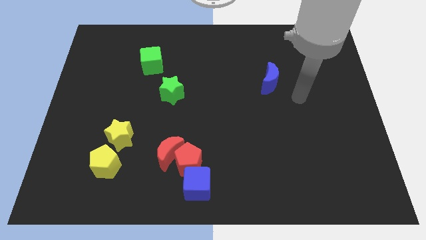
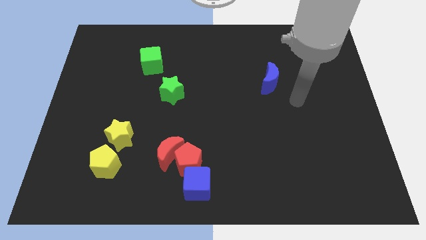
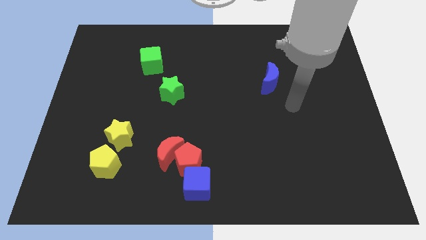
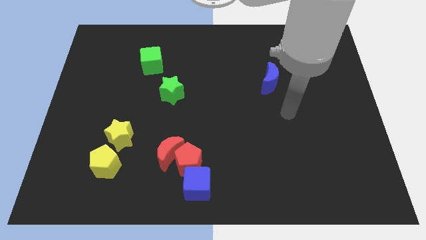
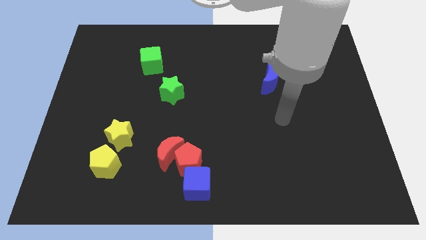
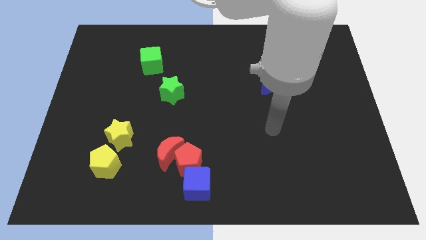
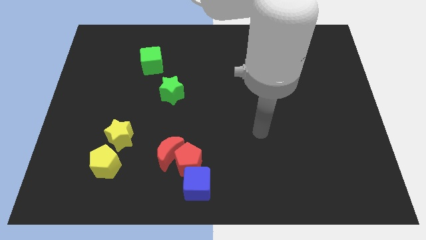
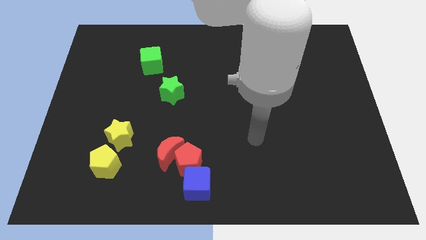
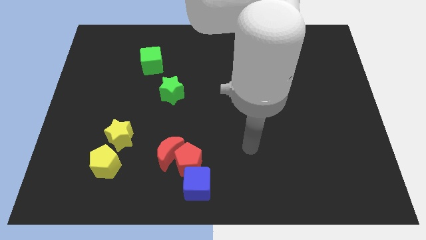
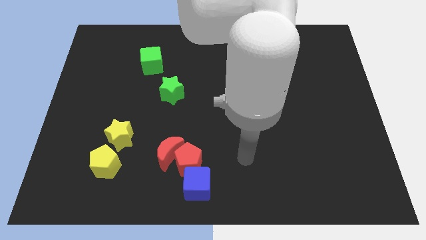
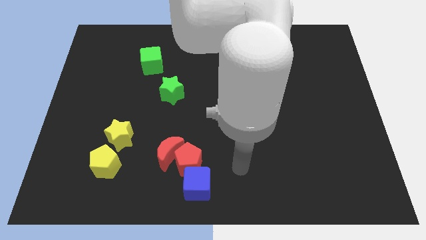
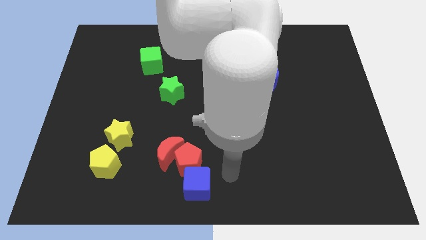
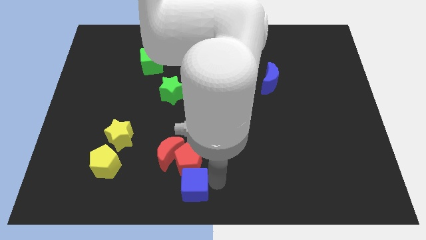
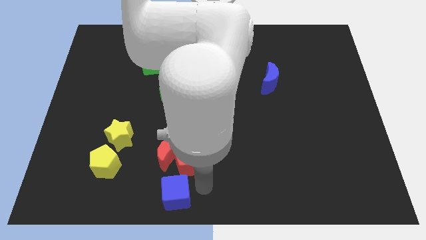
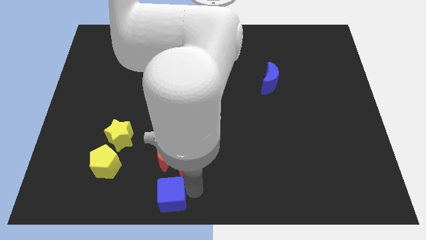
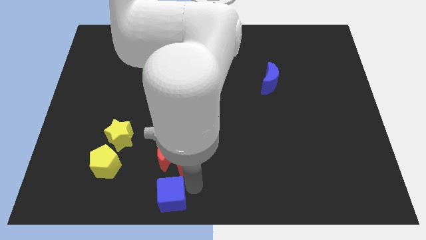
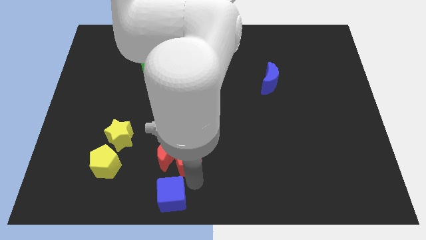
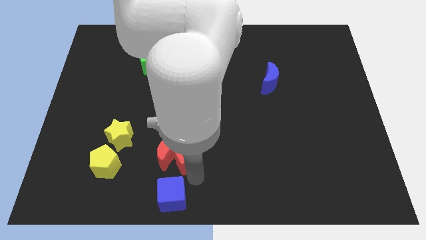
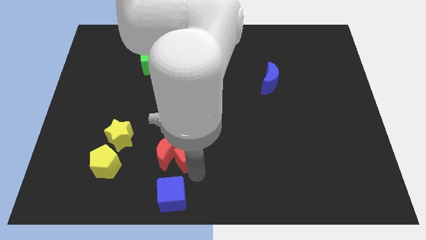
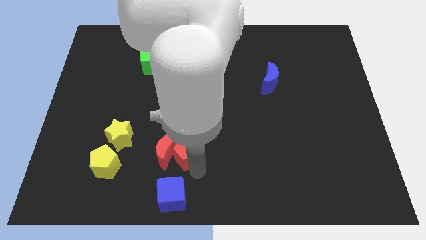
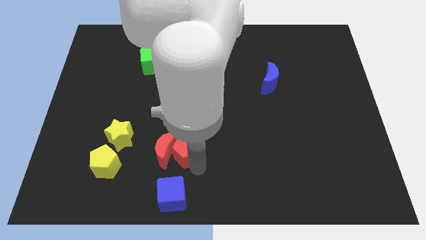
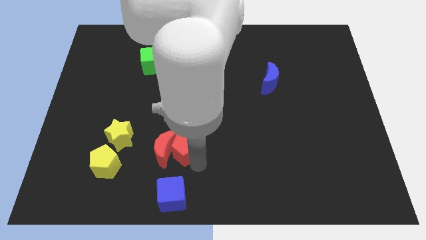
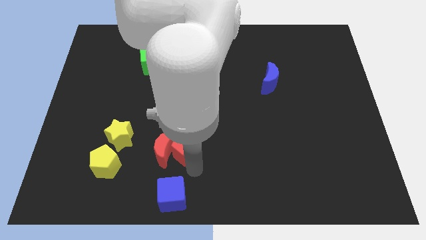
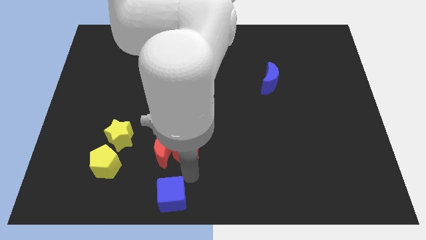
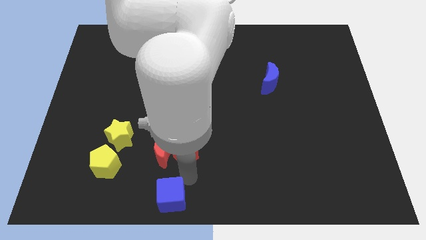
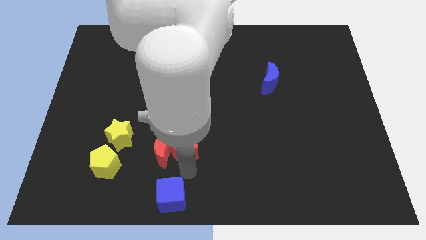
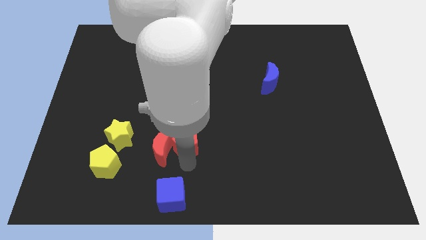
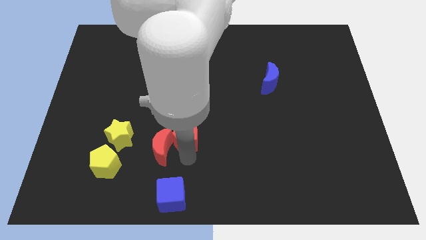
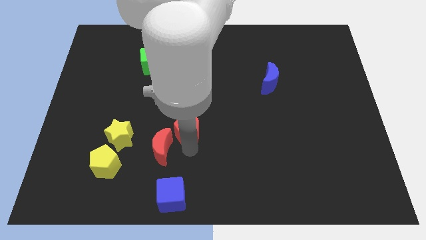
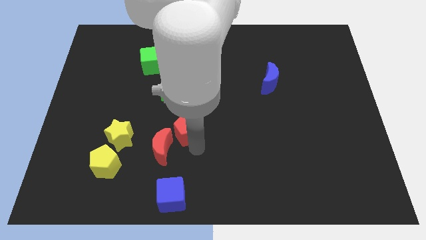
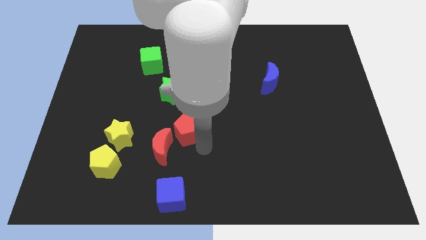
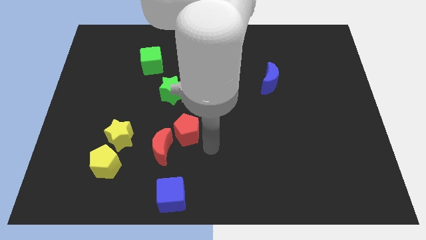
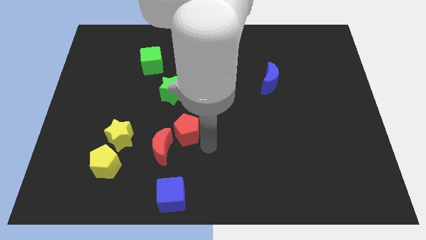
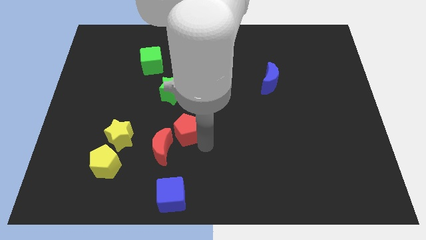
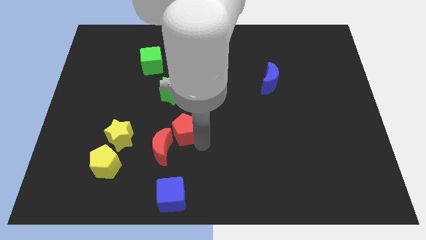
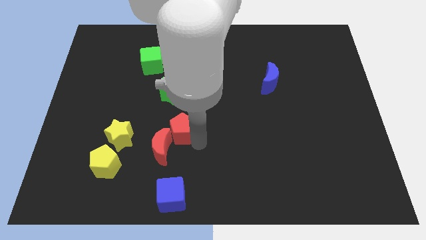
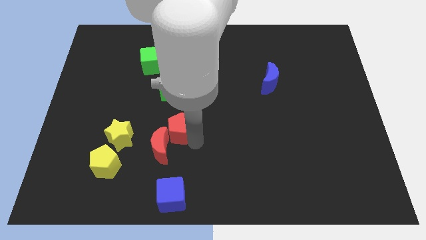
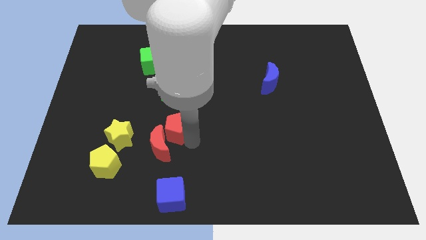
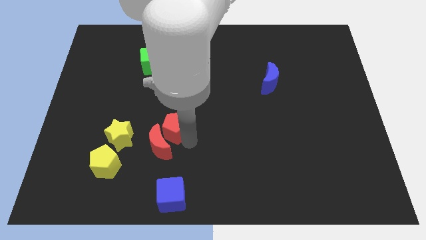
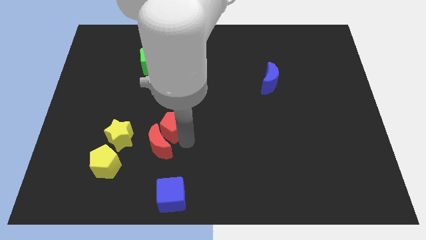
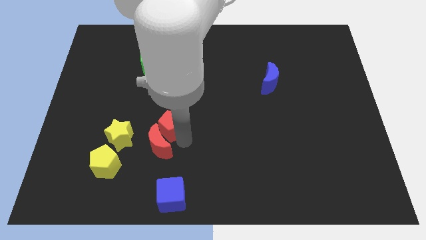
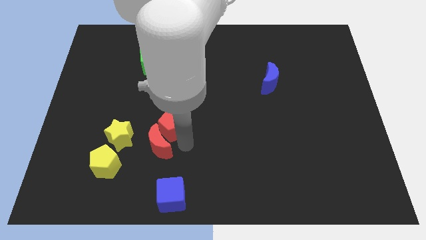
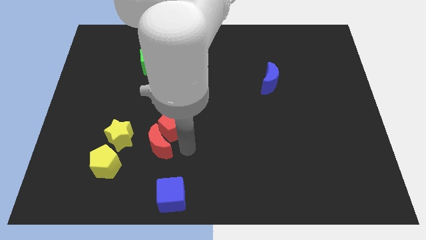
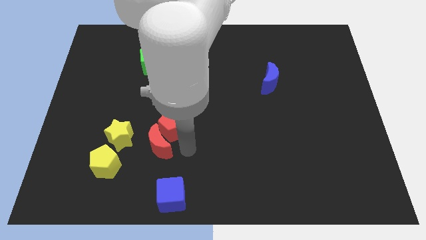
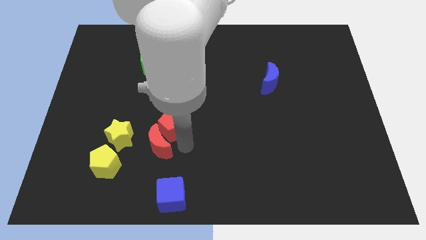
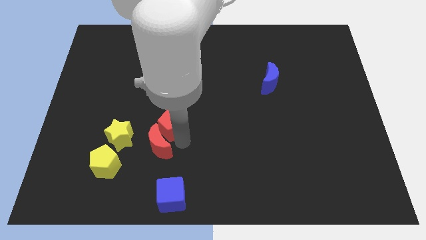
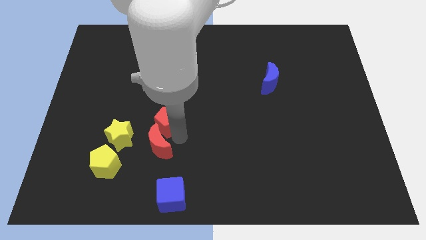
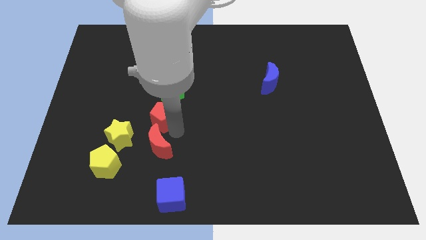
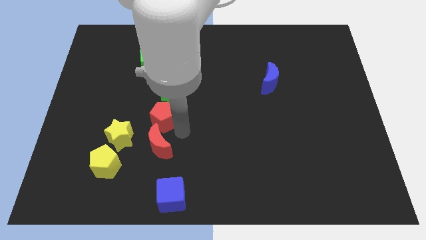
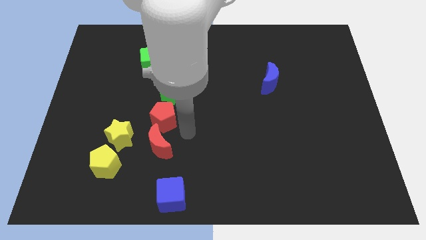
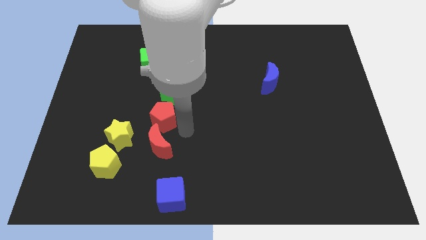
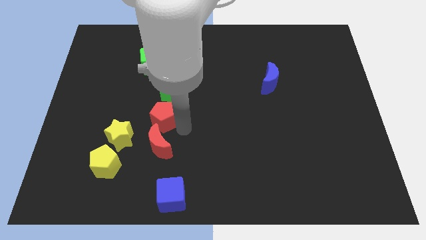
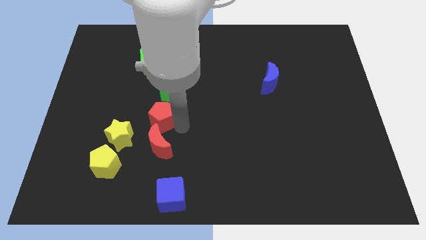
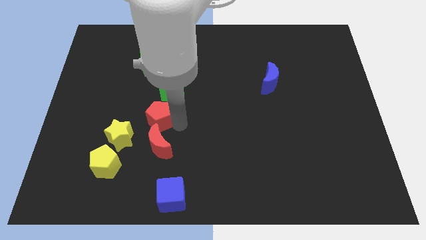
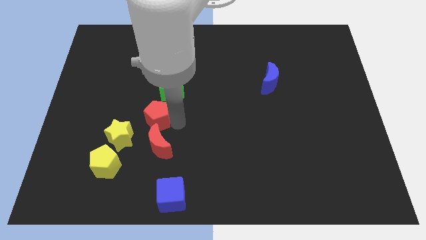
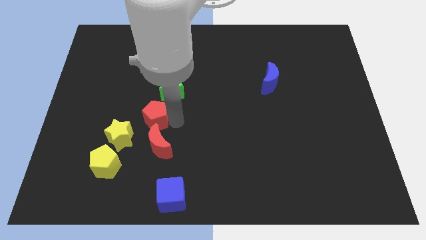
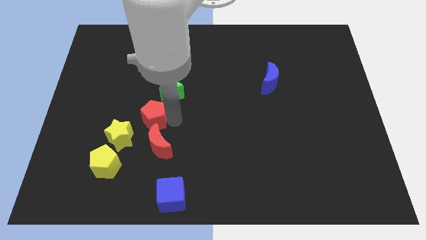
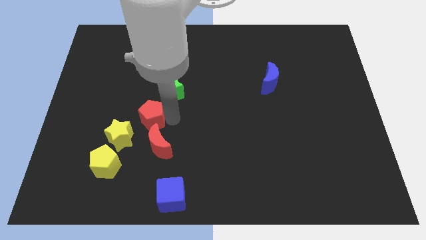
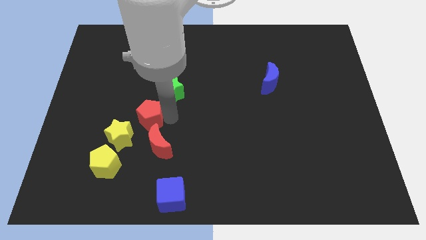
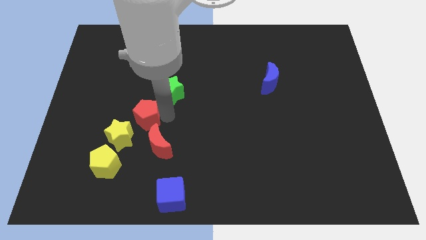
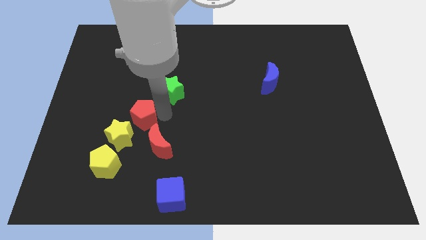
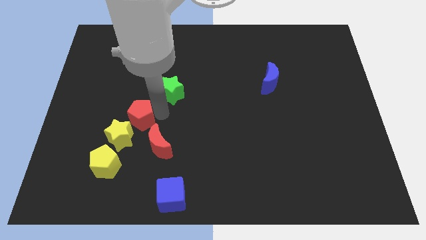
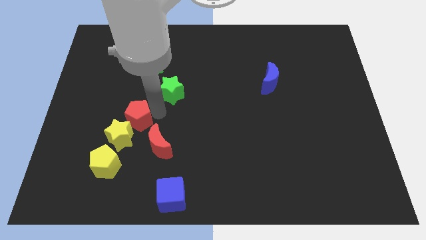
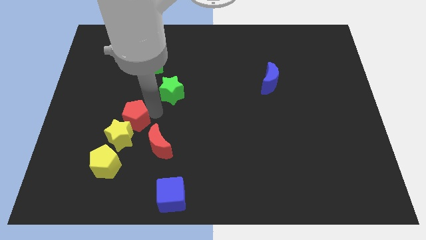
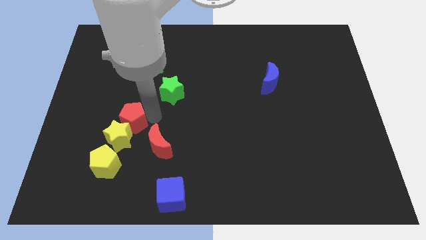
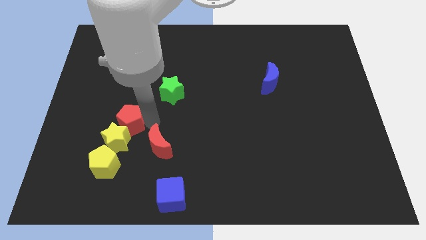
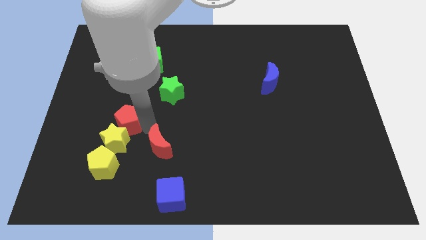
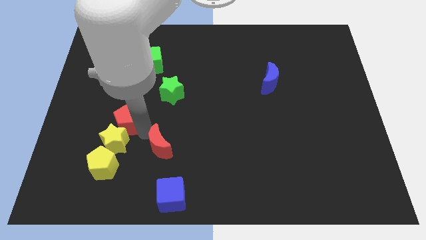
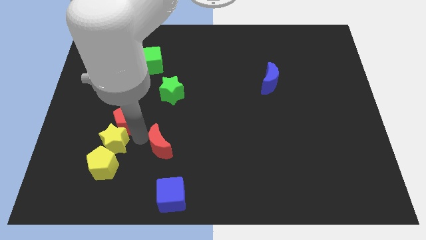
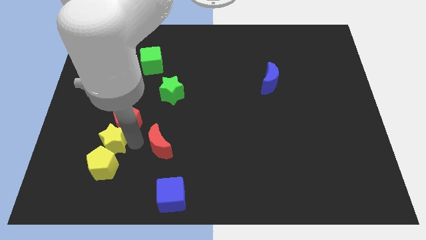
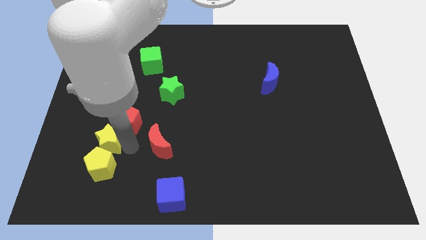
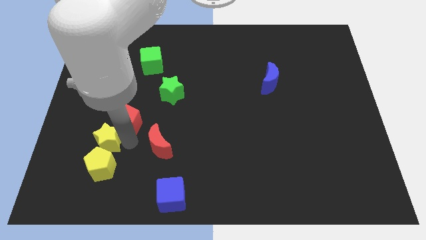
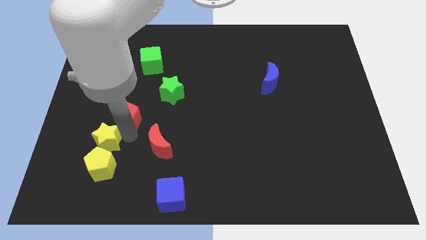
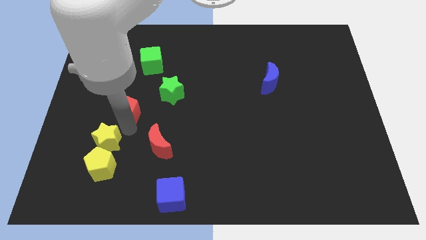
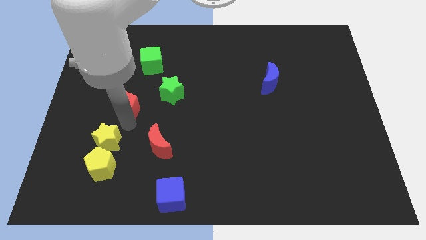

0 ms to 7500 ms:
move the red pentagon upwards and to the left

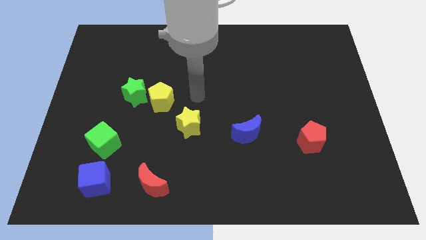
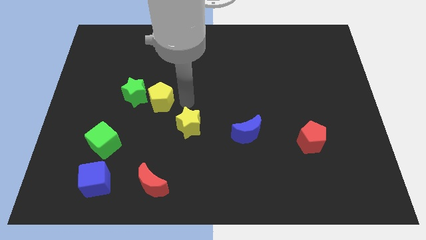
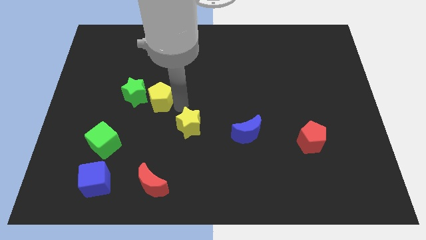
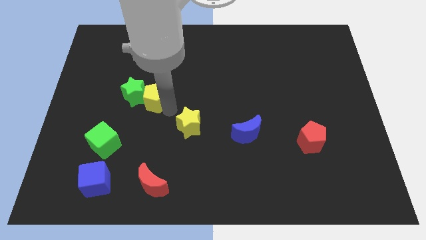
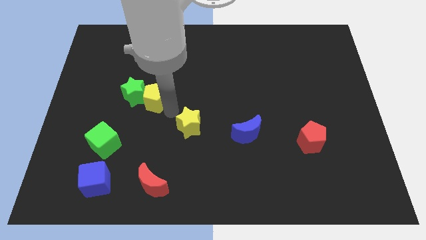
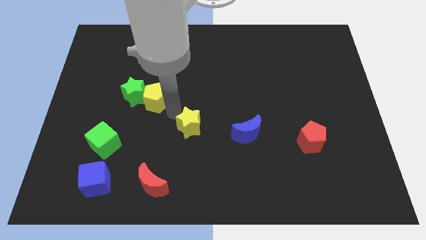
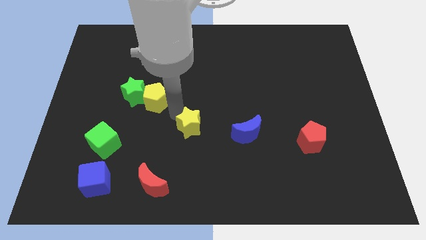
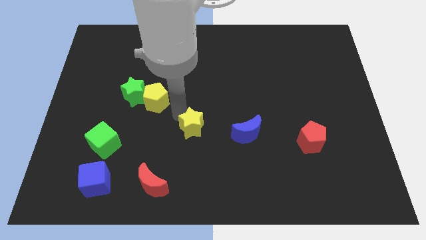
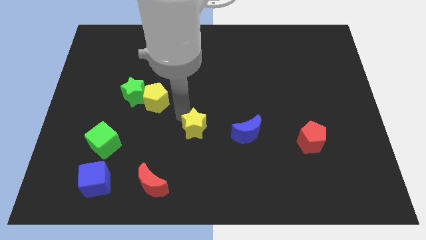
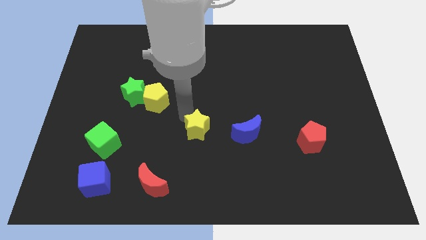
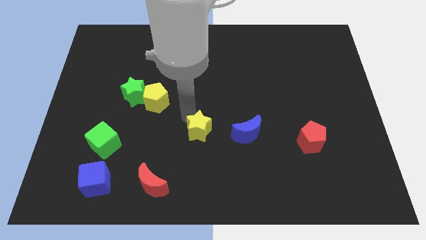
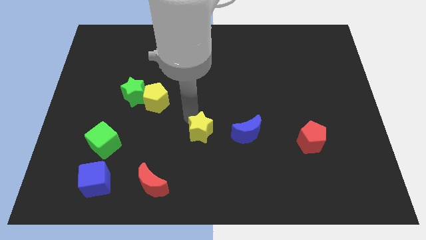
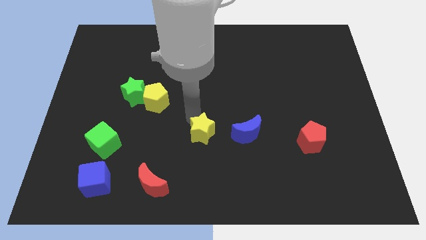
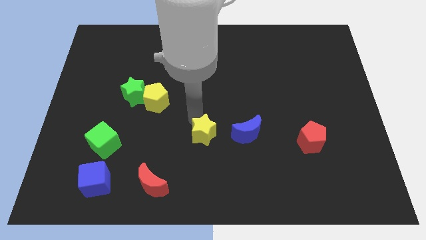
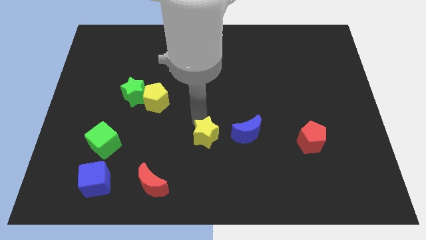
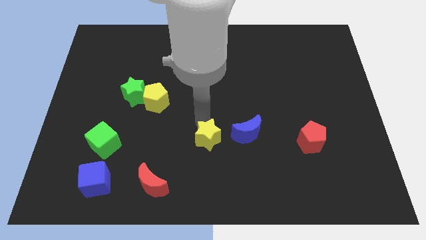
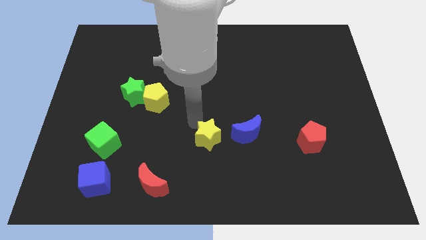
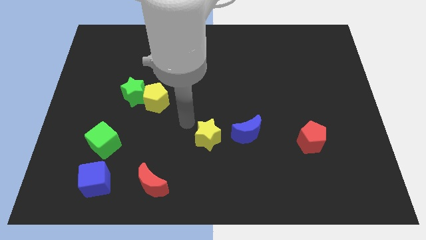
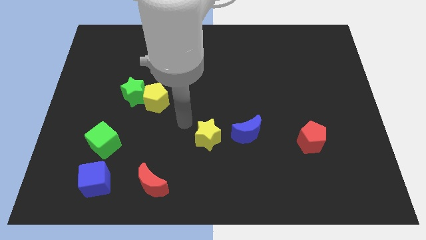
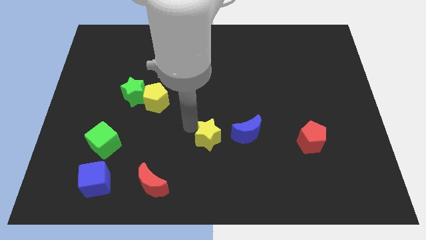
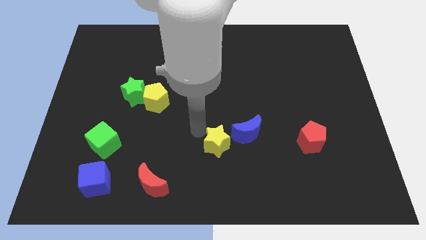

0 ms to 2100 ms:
slide the yellow star downwards and right a little bit
